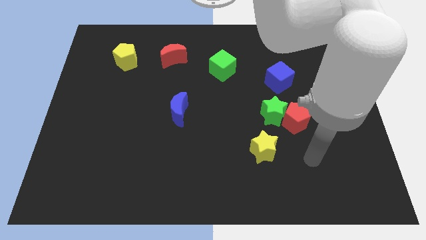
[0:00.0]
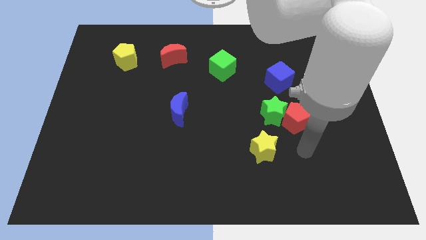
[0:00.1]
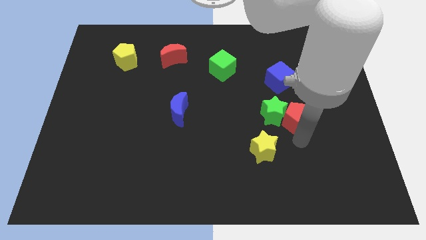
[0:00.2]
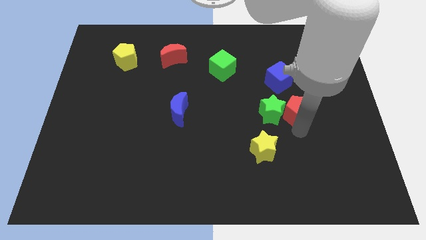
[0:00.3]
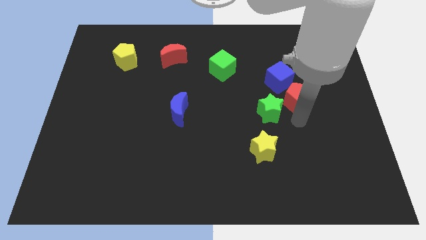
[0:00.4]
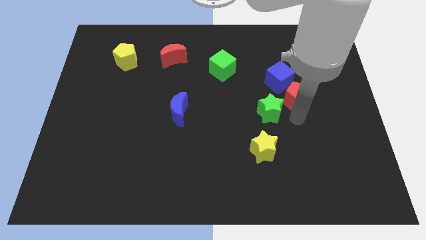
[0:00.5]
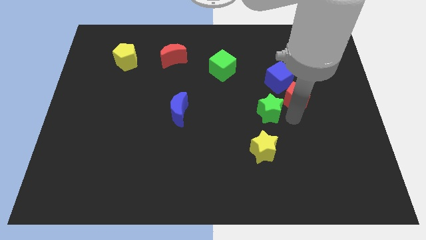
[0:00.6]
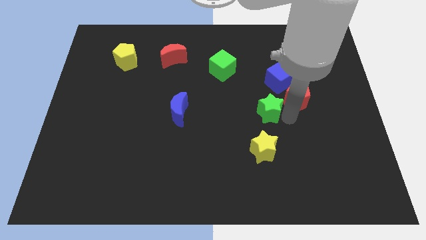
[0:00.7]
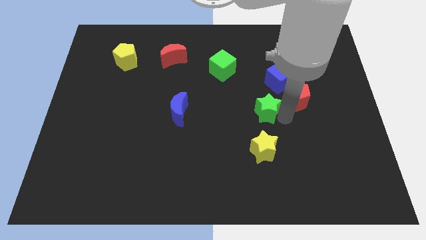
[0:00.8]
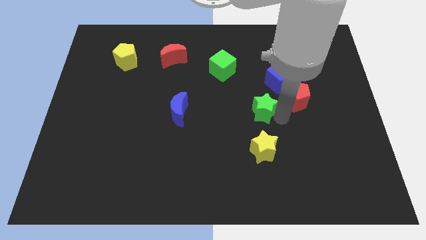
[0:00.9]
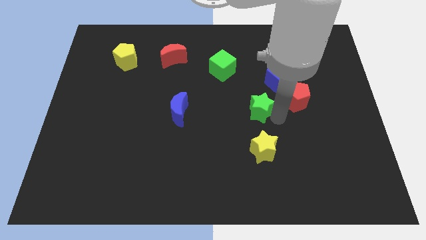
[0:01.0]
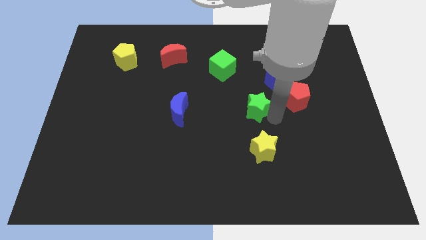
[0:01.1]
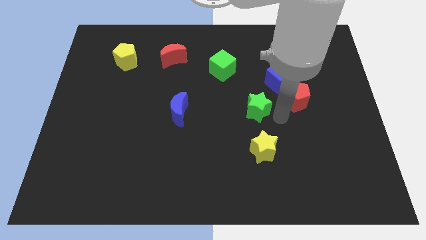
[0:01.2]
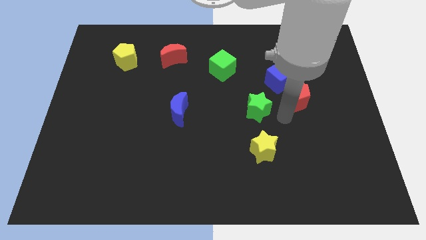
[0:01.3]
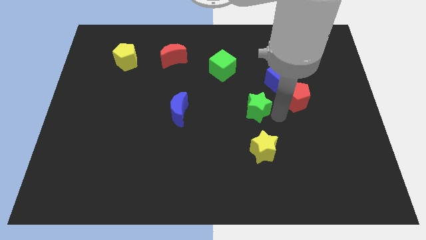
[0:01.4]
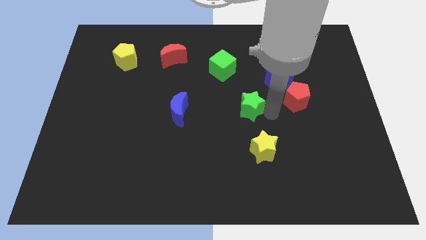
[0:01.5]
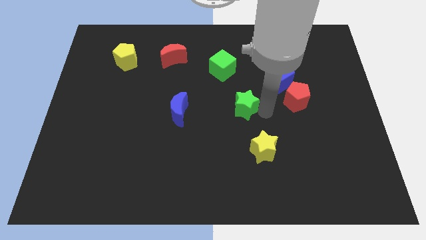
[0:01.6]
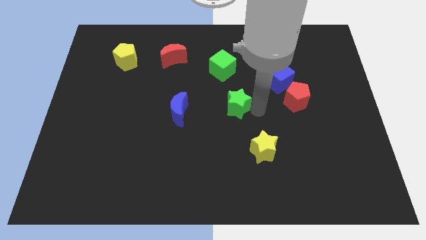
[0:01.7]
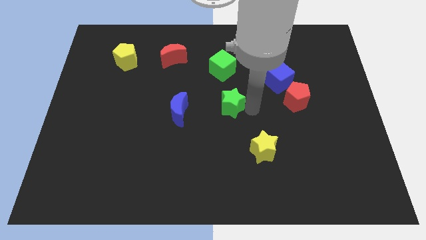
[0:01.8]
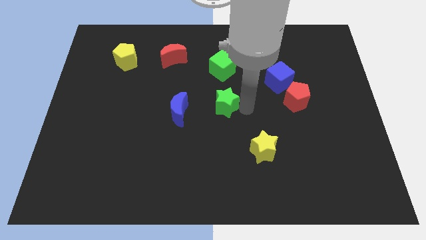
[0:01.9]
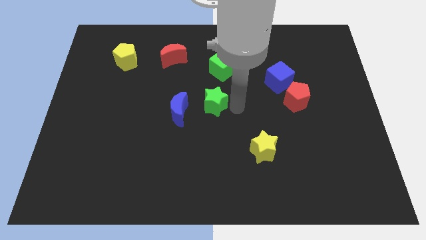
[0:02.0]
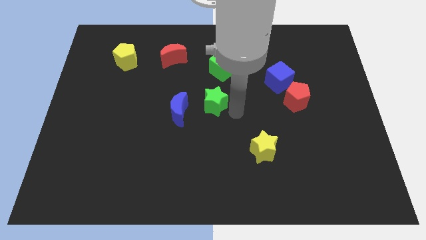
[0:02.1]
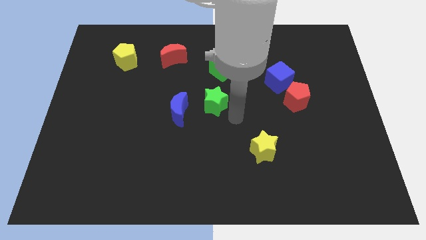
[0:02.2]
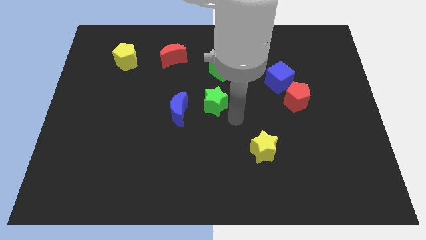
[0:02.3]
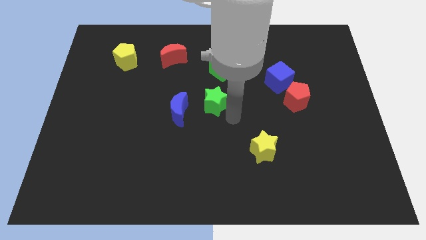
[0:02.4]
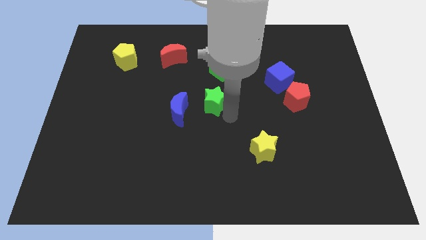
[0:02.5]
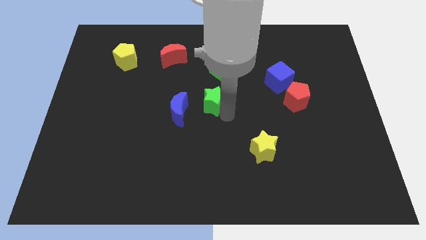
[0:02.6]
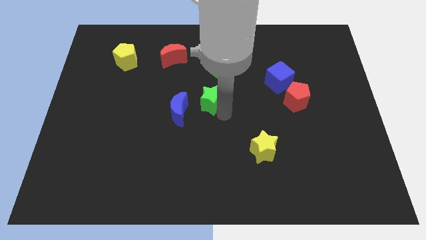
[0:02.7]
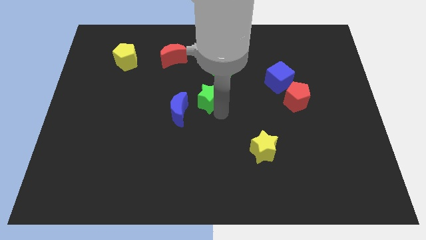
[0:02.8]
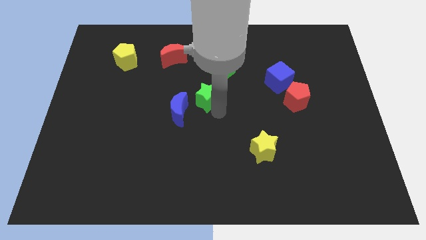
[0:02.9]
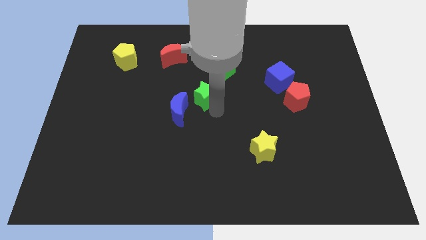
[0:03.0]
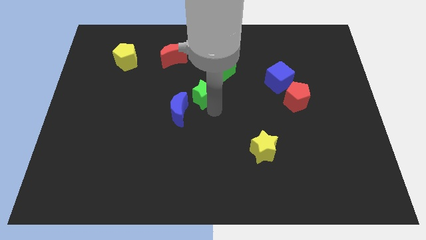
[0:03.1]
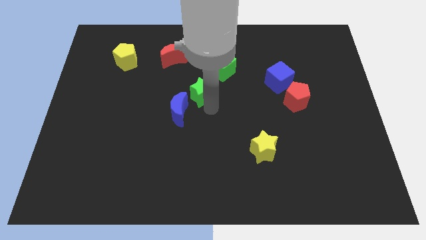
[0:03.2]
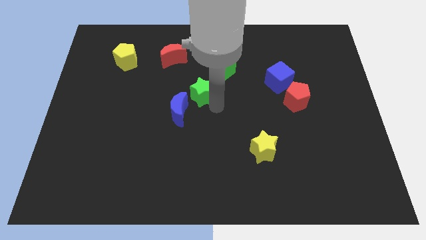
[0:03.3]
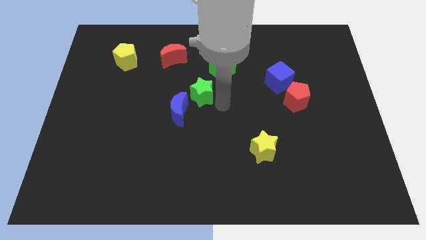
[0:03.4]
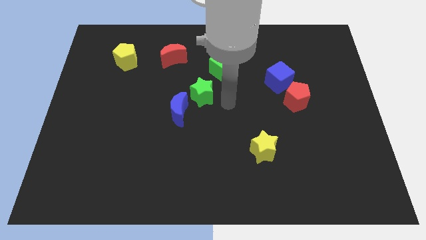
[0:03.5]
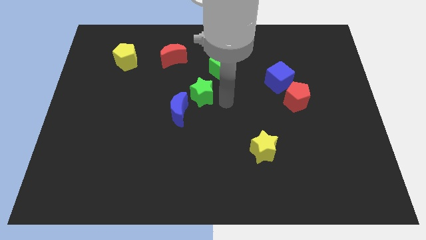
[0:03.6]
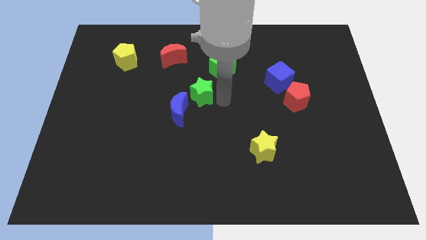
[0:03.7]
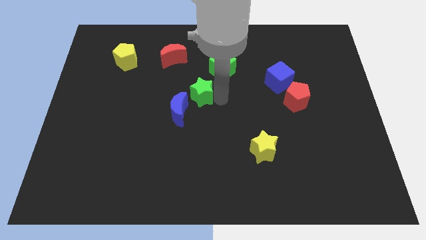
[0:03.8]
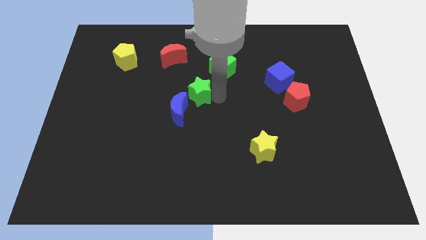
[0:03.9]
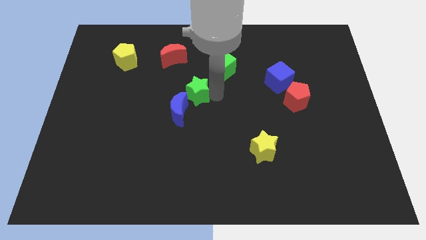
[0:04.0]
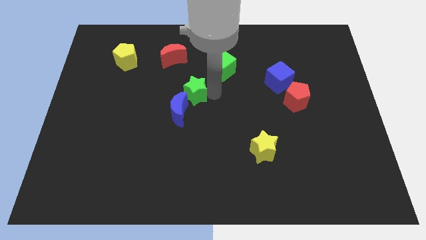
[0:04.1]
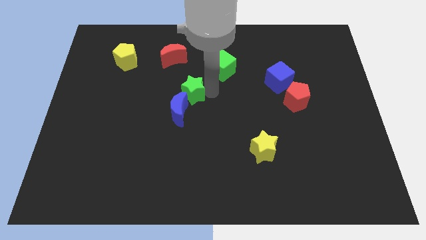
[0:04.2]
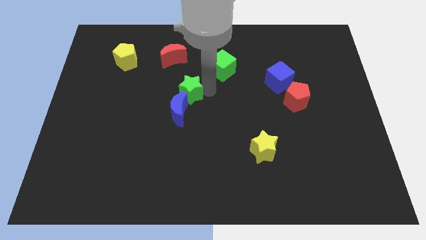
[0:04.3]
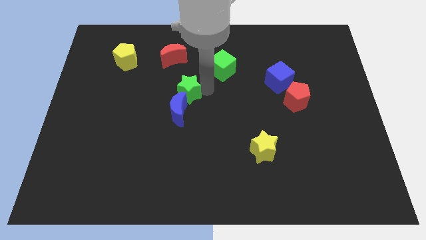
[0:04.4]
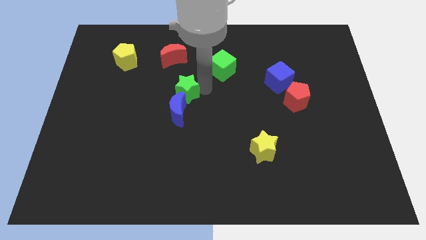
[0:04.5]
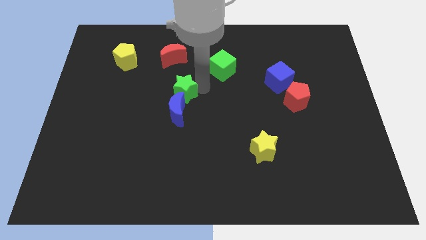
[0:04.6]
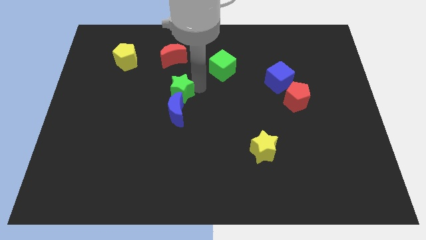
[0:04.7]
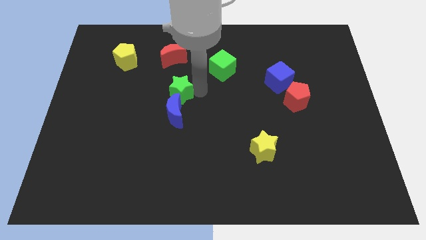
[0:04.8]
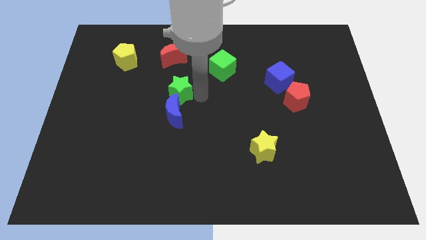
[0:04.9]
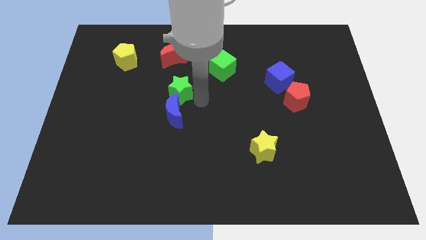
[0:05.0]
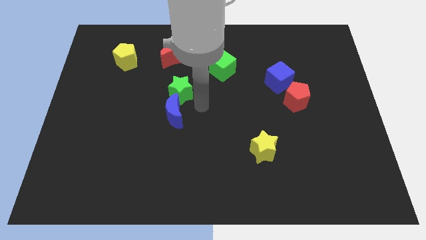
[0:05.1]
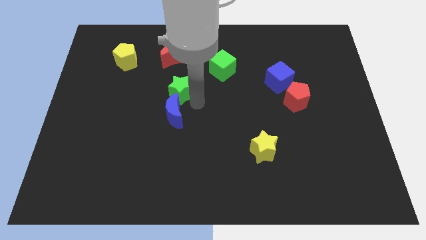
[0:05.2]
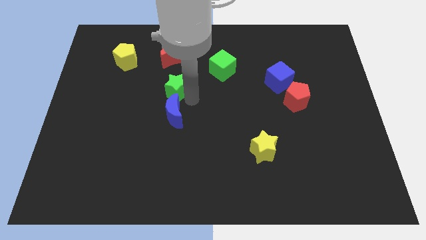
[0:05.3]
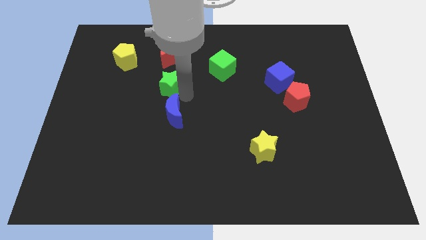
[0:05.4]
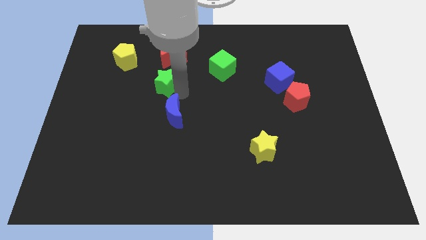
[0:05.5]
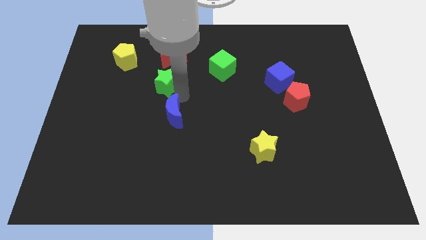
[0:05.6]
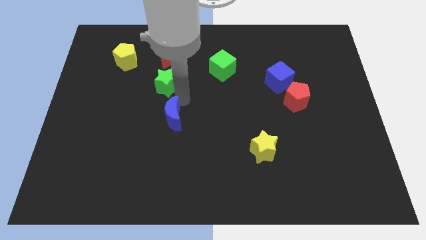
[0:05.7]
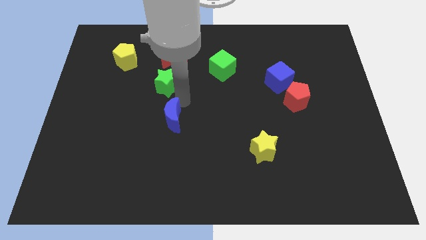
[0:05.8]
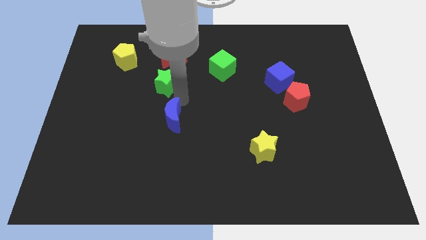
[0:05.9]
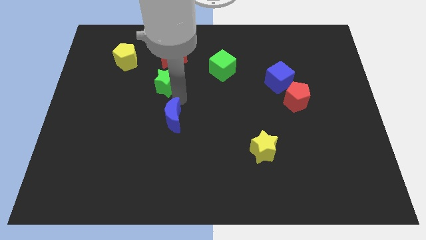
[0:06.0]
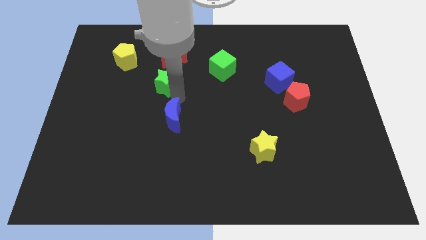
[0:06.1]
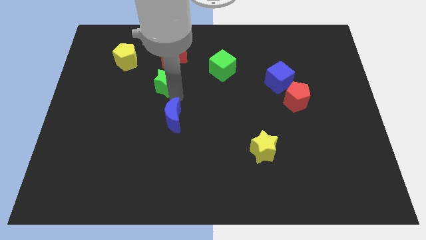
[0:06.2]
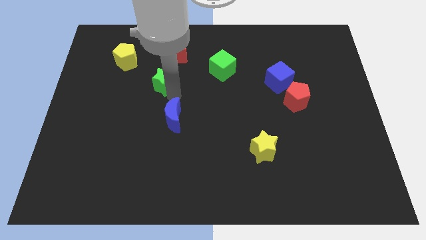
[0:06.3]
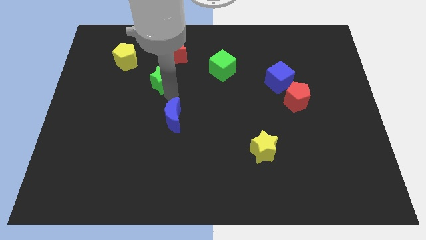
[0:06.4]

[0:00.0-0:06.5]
put the green star to the bottom right side of the yellow pentagon
